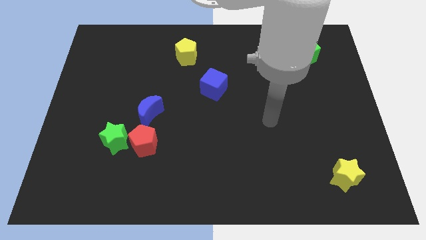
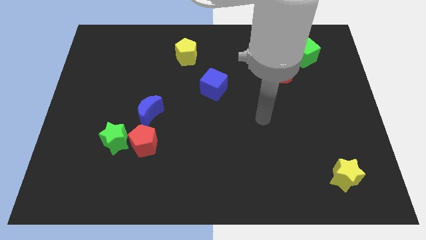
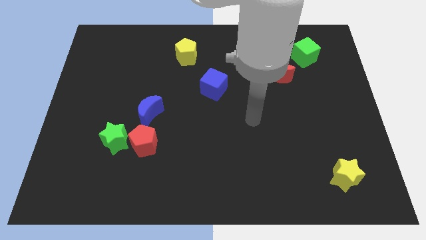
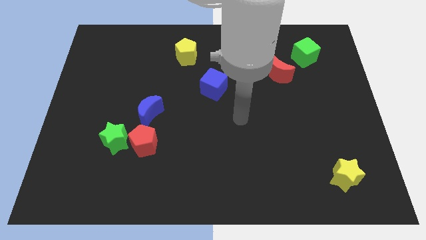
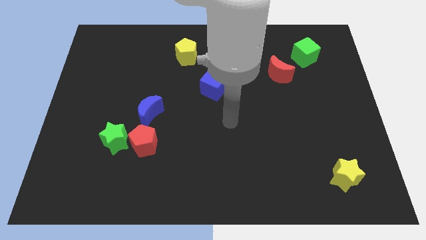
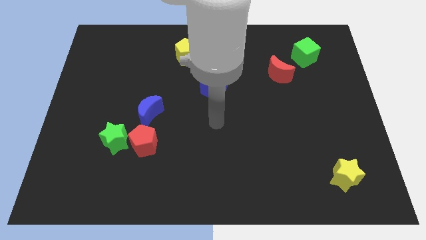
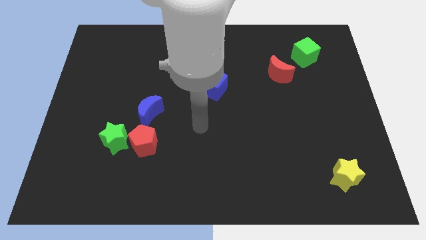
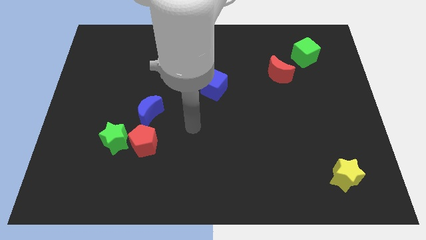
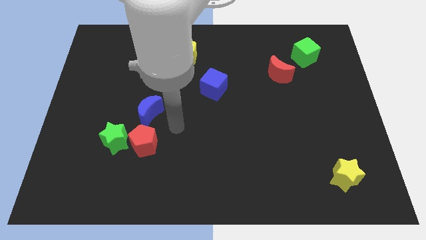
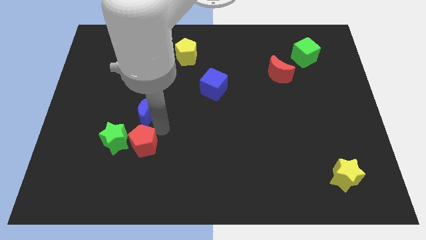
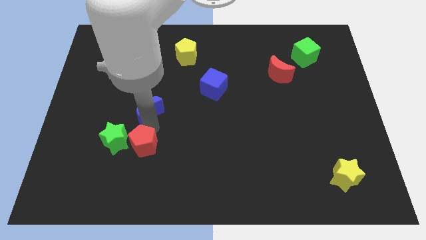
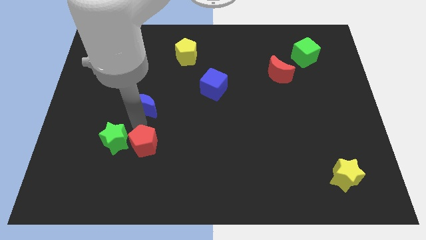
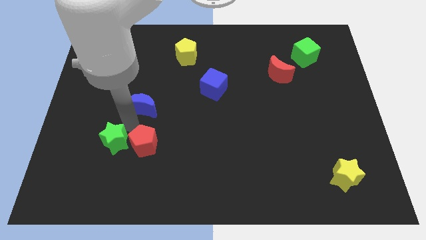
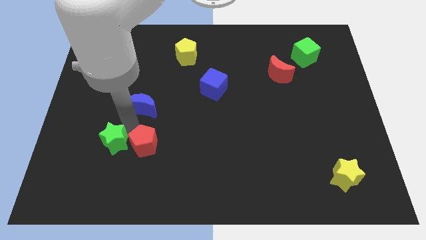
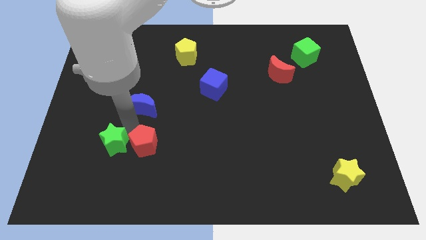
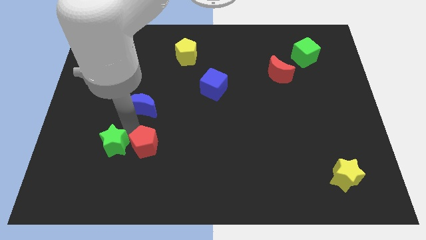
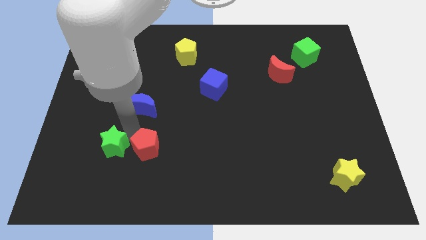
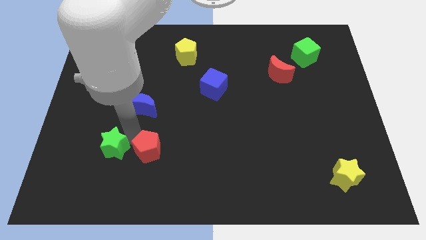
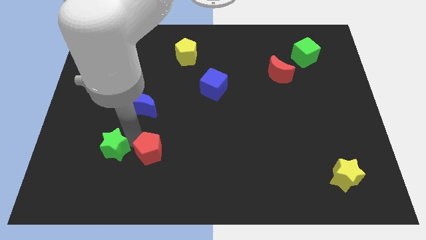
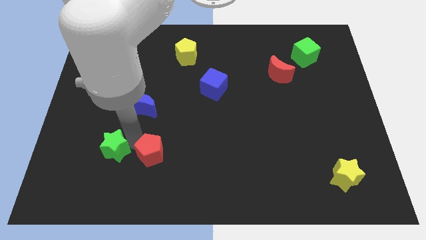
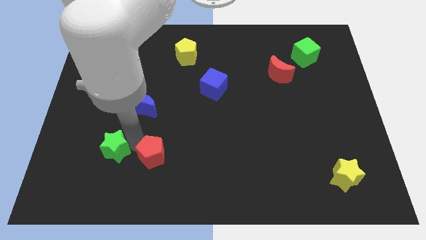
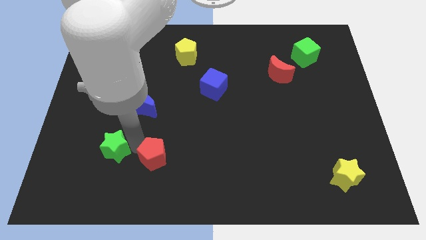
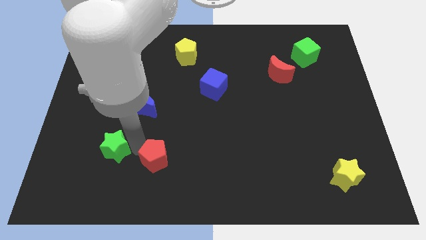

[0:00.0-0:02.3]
pull the red pentagon apart from the green star and blue moon

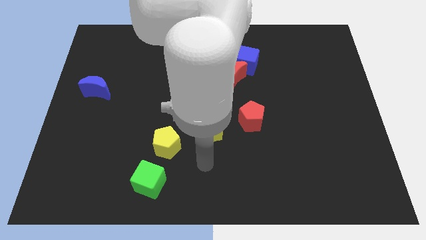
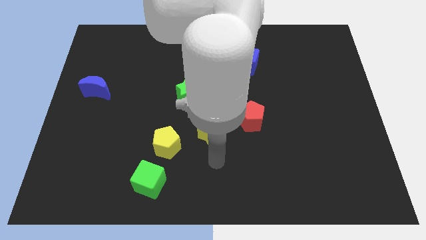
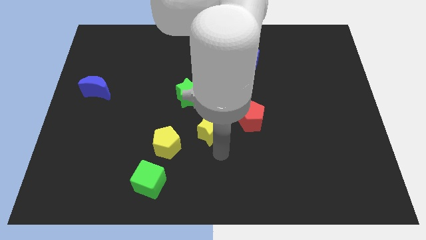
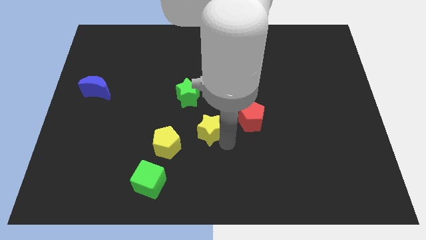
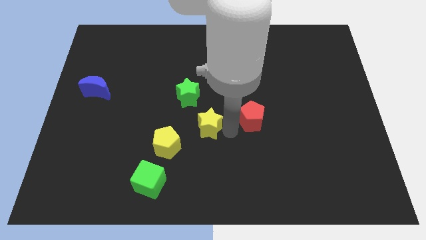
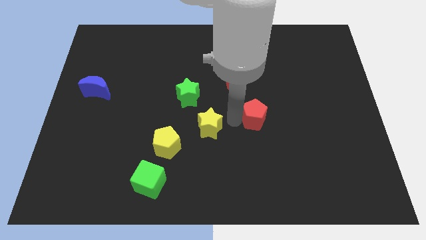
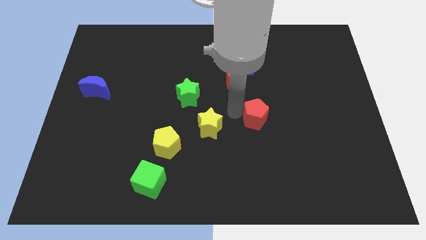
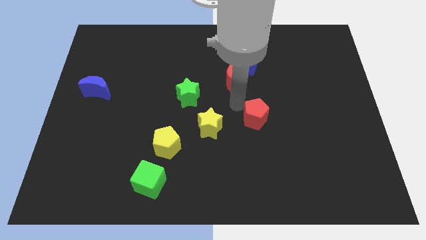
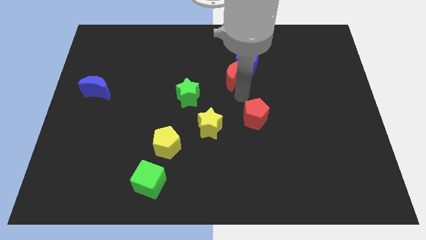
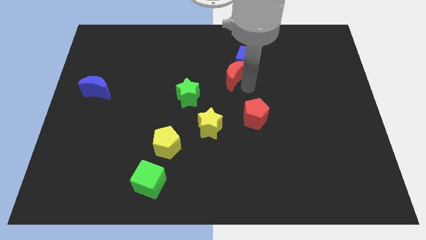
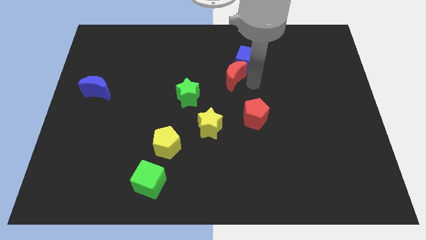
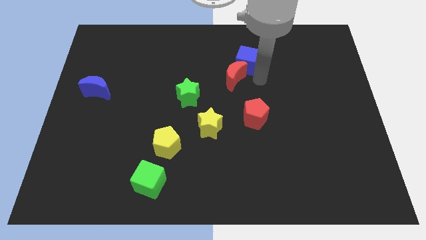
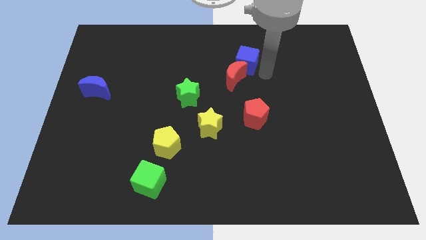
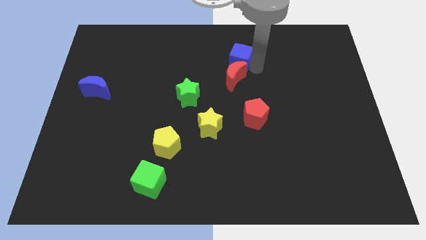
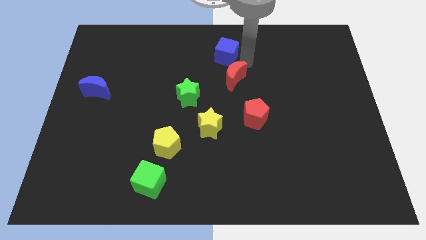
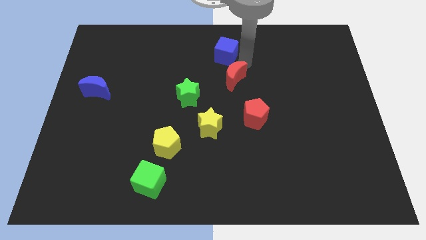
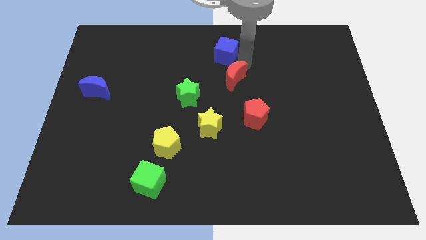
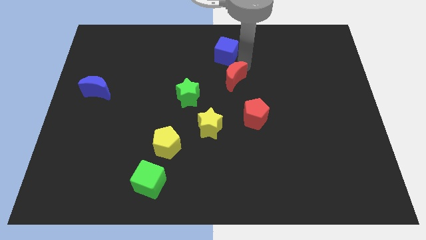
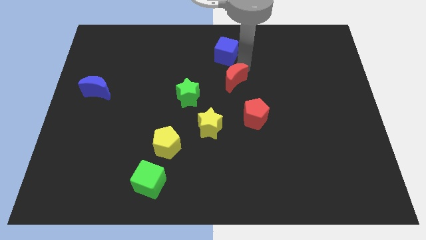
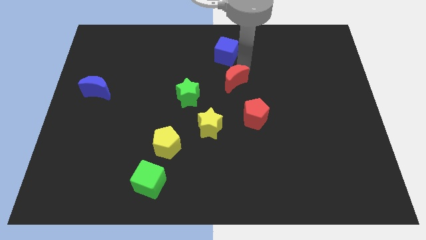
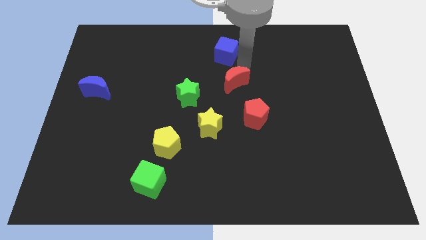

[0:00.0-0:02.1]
pull the red moon apart from the blue cube

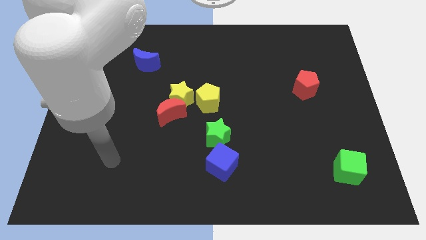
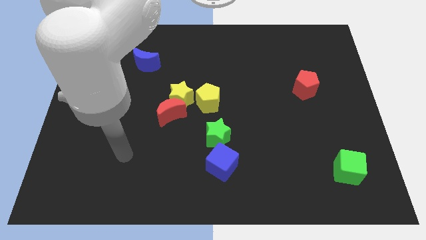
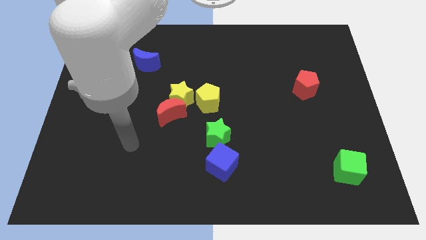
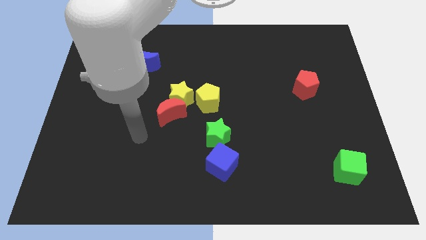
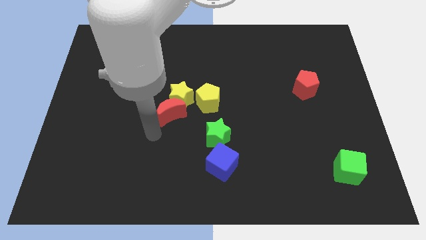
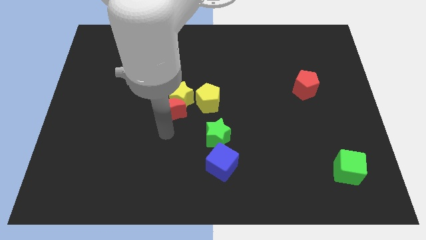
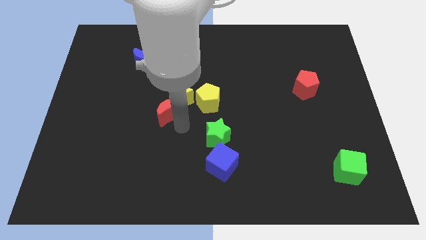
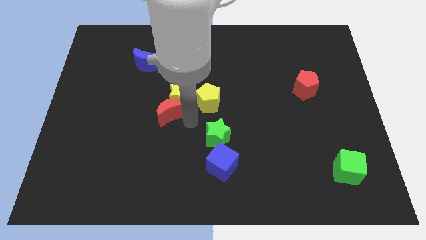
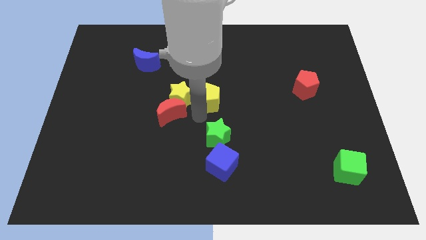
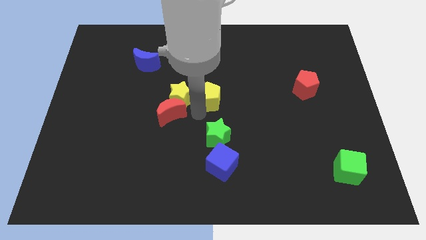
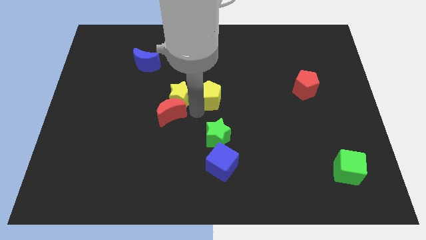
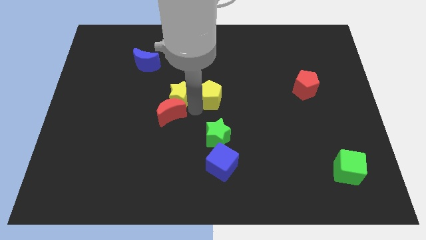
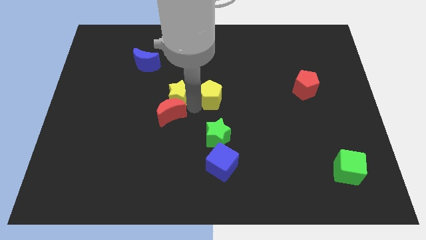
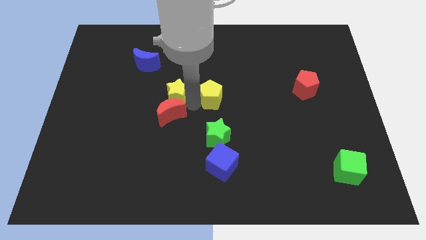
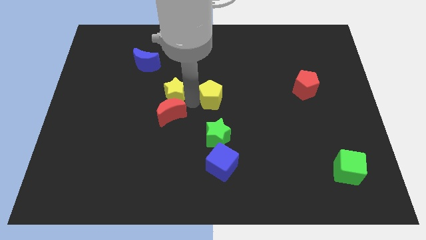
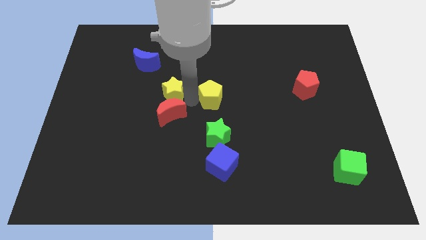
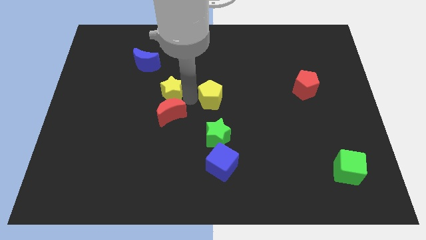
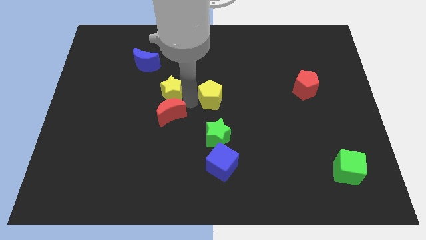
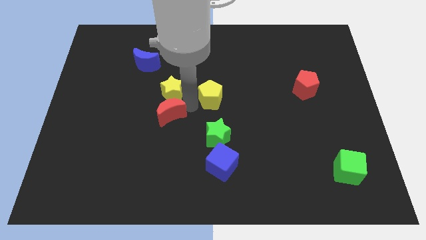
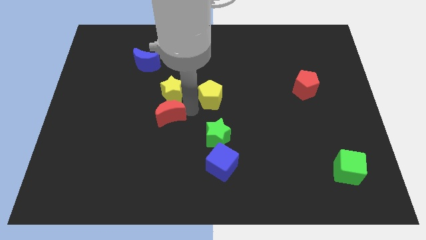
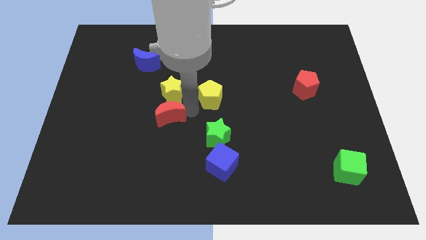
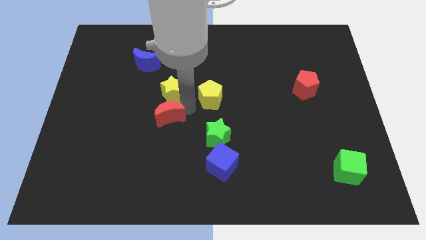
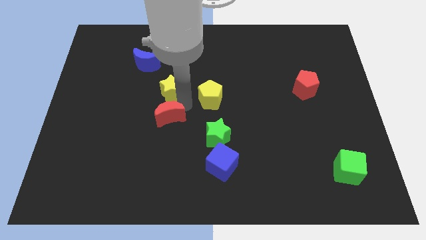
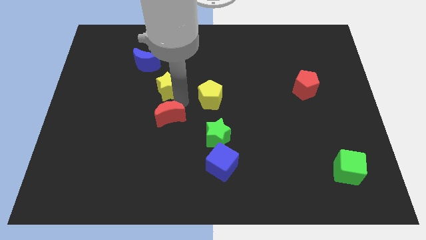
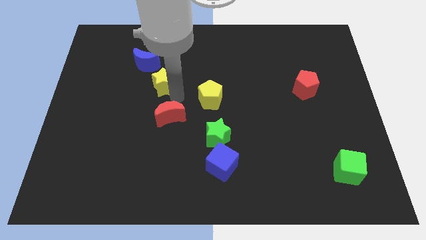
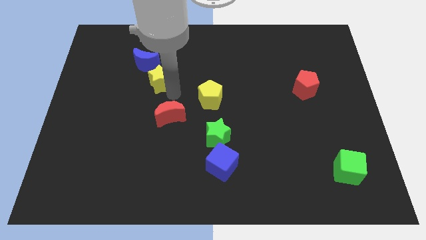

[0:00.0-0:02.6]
pull the yellow star apart from the red moon and yellow pentagon

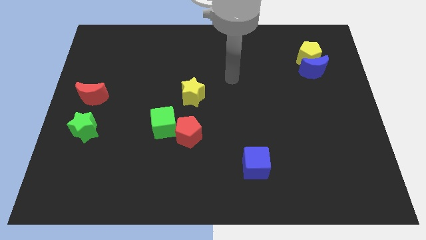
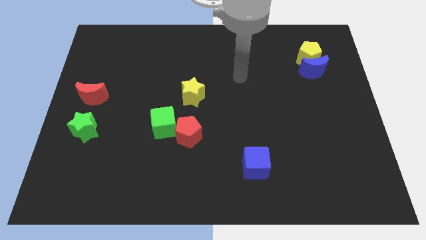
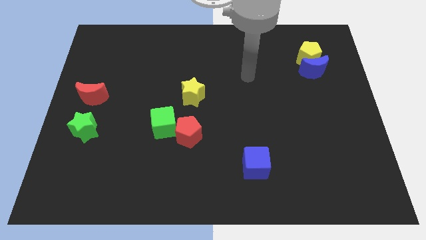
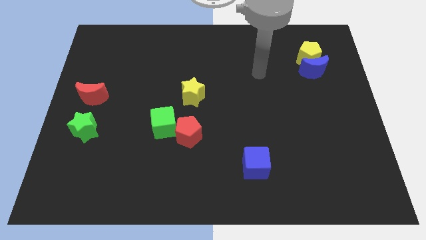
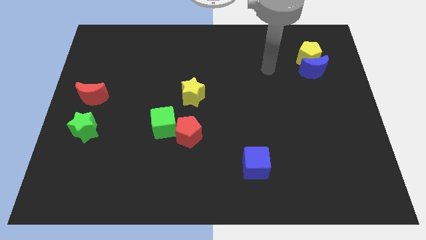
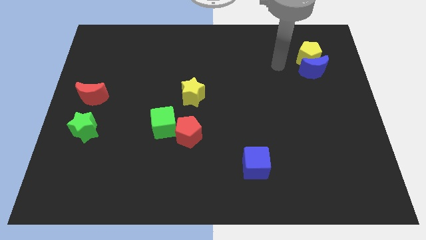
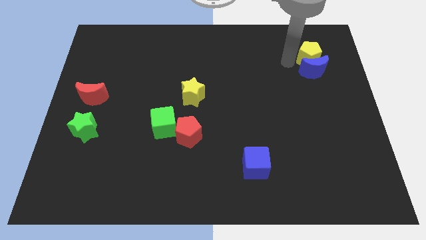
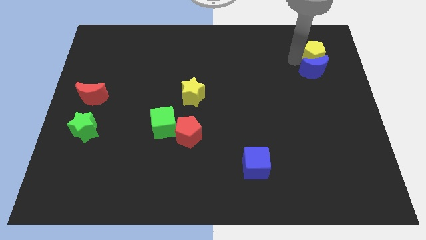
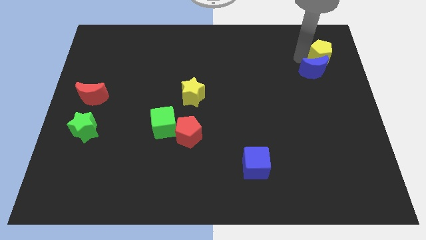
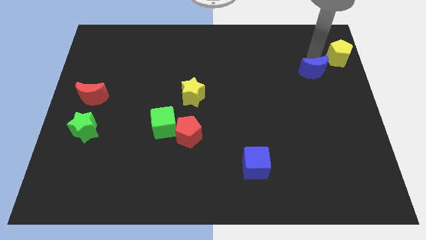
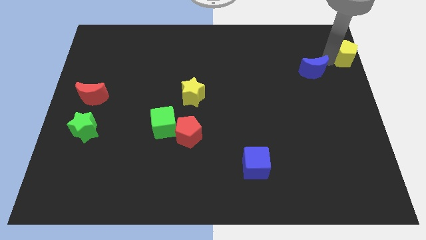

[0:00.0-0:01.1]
separate the blue moon from the yellow pentagon

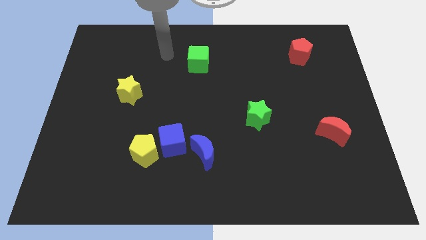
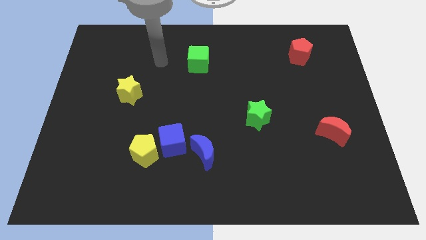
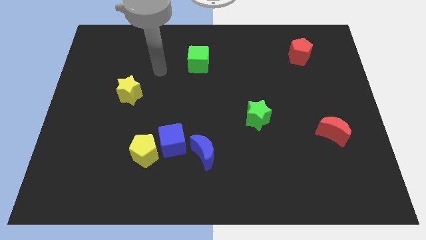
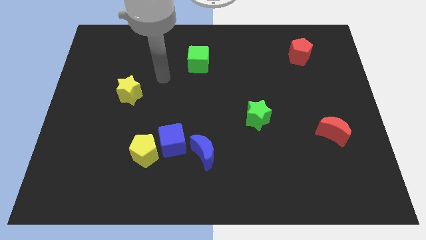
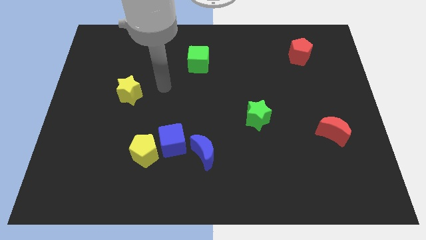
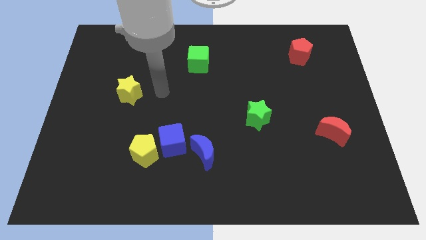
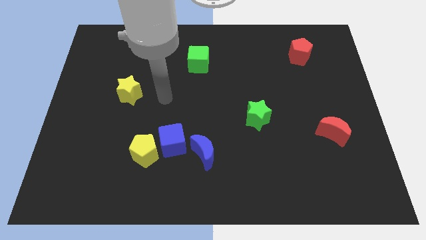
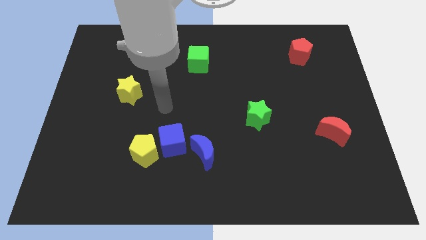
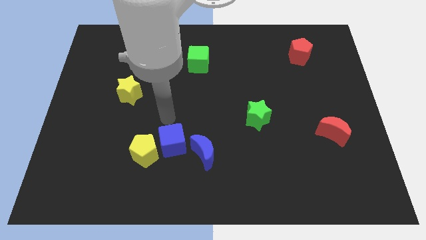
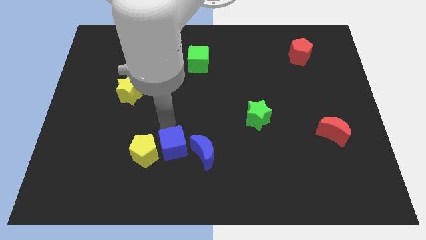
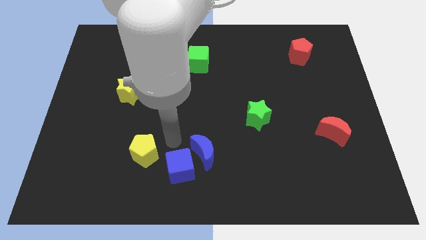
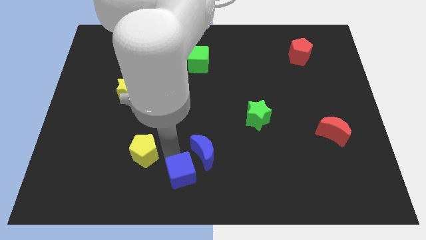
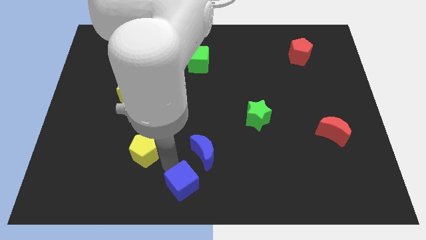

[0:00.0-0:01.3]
move the yellow pentagon away from the blue cube
